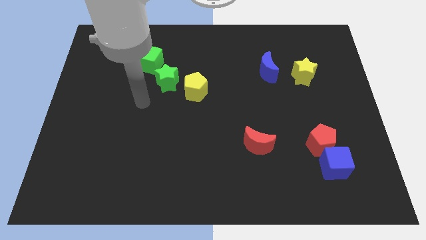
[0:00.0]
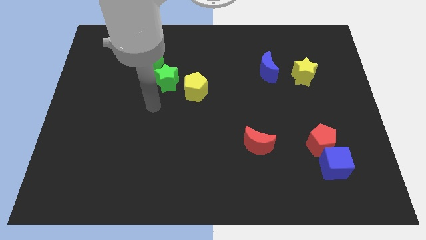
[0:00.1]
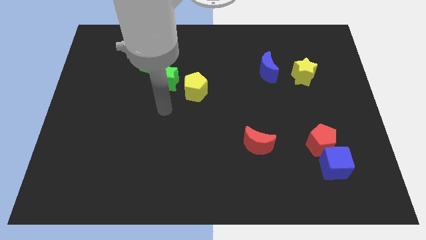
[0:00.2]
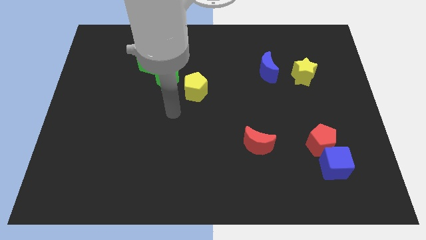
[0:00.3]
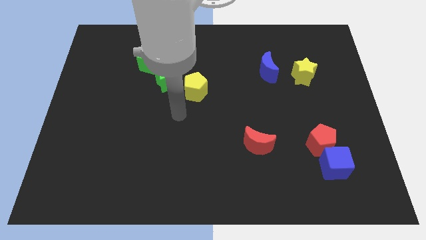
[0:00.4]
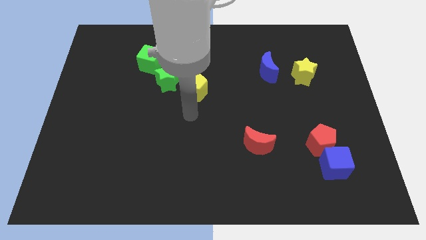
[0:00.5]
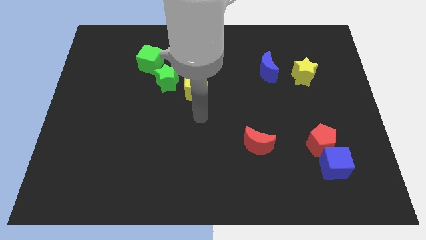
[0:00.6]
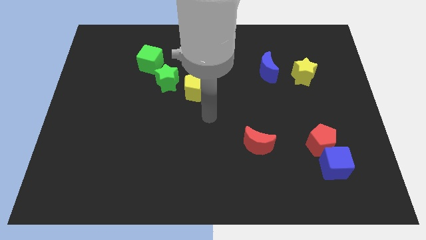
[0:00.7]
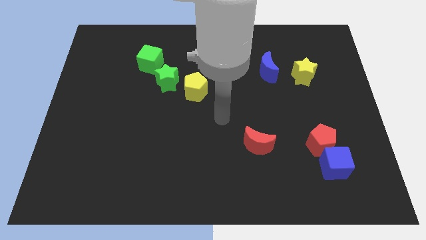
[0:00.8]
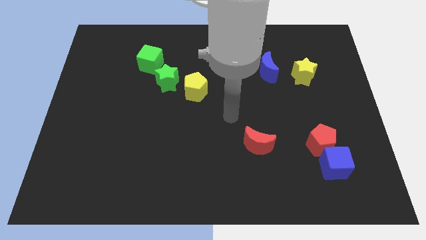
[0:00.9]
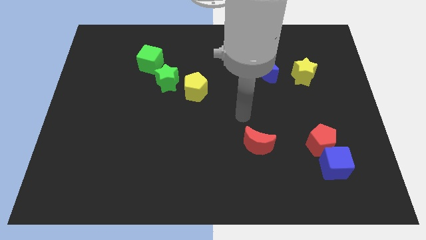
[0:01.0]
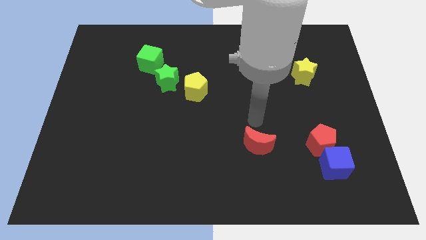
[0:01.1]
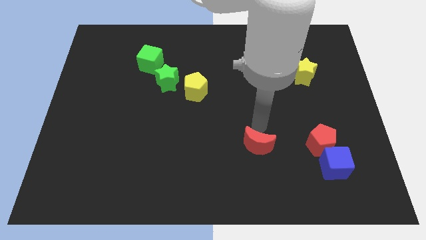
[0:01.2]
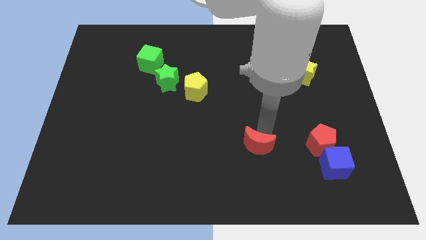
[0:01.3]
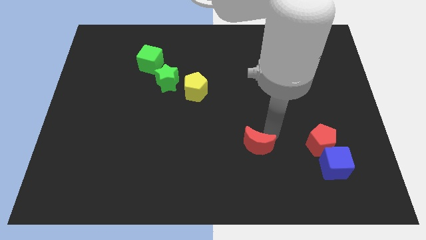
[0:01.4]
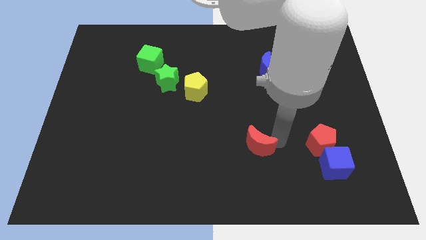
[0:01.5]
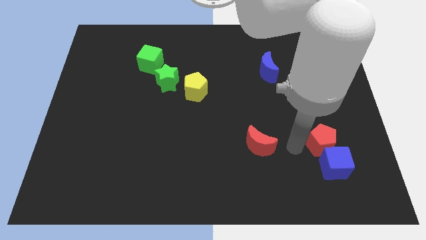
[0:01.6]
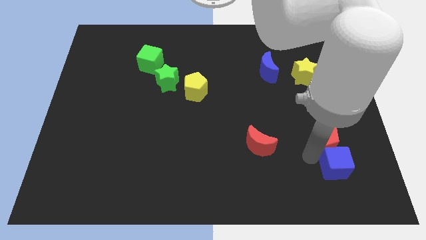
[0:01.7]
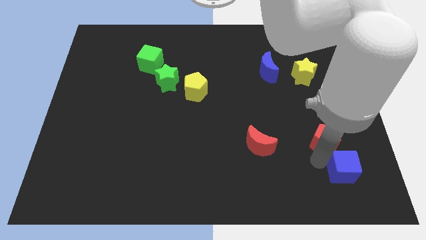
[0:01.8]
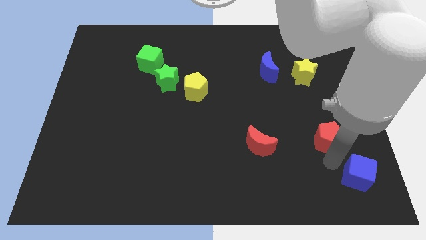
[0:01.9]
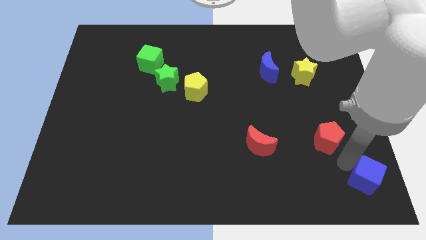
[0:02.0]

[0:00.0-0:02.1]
separate the red pentagon from the blue cube

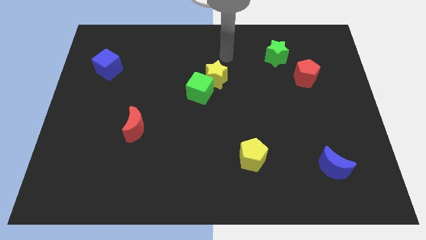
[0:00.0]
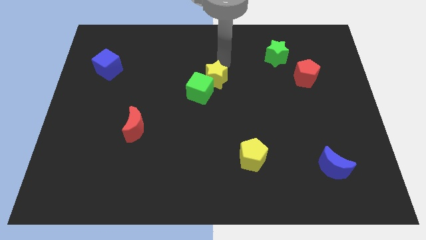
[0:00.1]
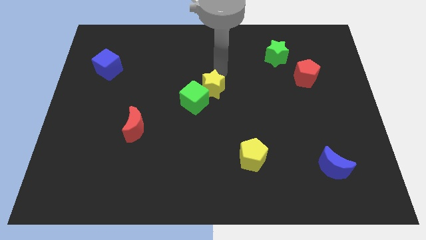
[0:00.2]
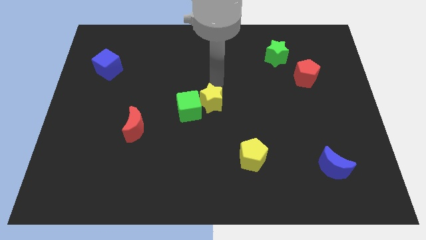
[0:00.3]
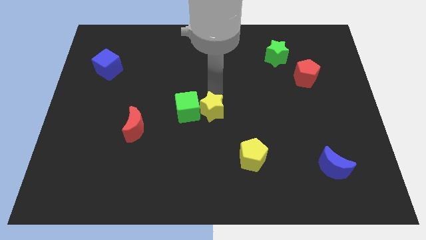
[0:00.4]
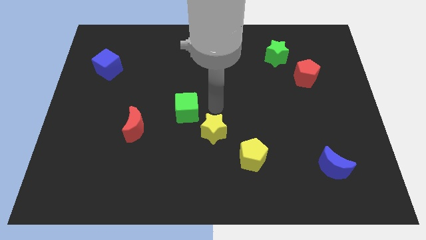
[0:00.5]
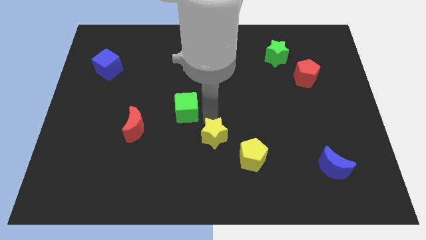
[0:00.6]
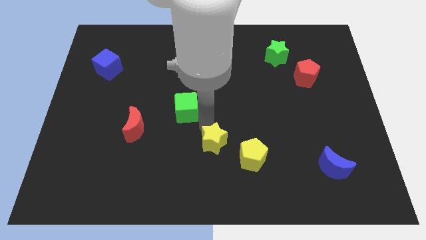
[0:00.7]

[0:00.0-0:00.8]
move the green cube away from the yellow star

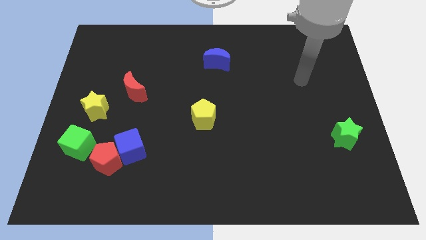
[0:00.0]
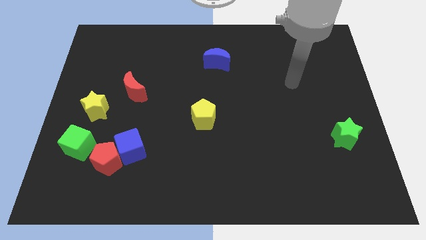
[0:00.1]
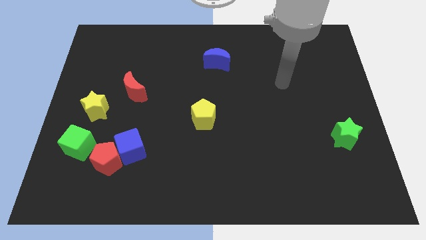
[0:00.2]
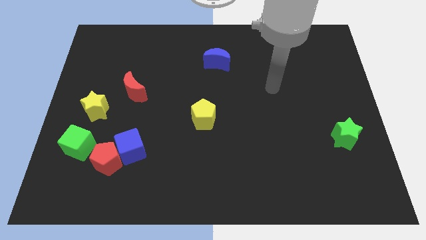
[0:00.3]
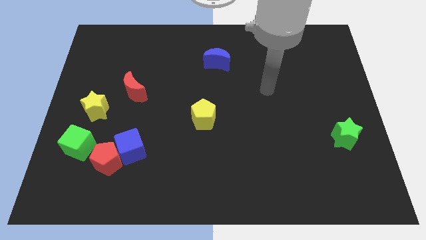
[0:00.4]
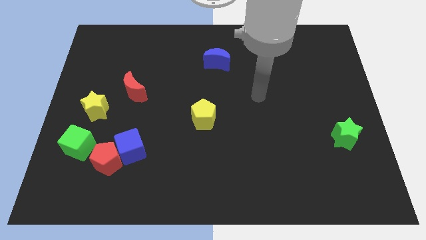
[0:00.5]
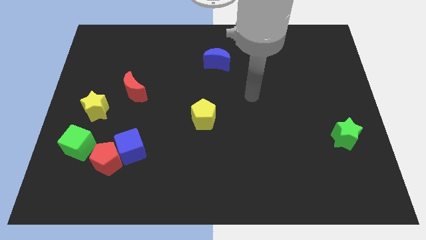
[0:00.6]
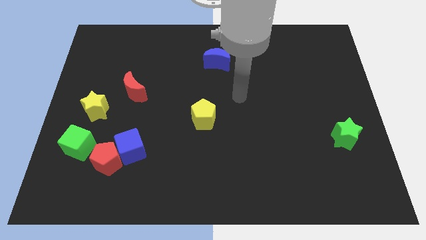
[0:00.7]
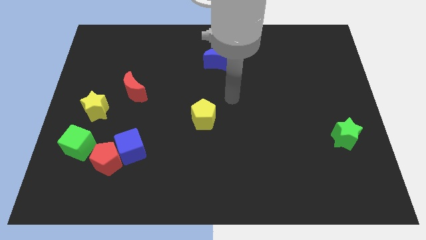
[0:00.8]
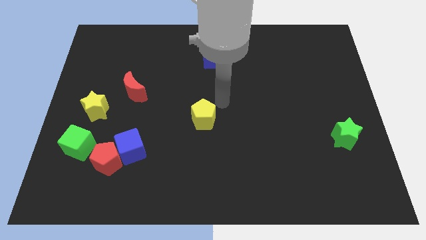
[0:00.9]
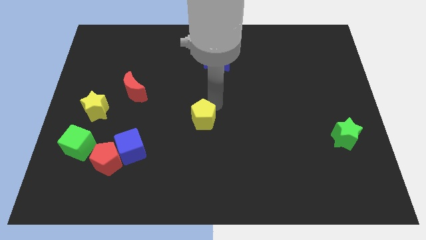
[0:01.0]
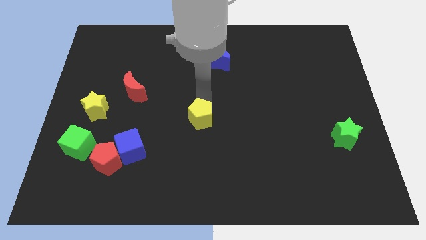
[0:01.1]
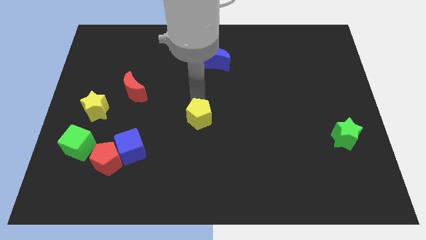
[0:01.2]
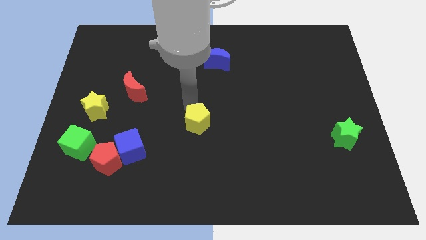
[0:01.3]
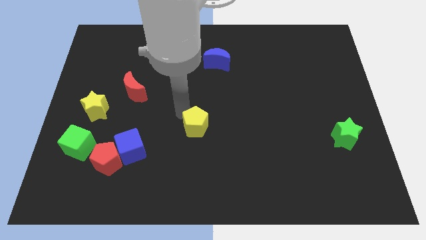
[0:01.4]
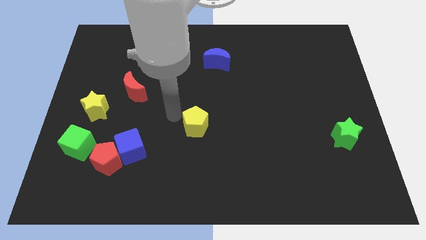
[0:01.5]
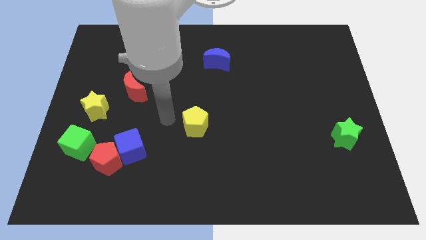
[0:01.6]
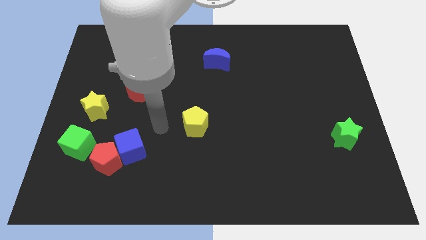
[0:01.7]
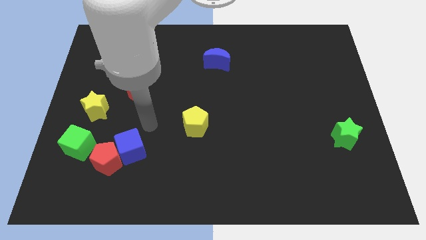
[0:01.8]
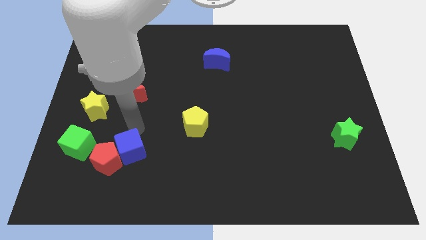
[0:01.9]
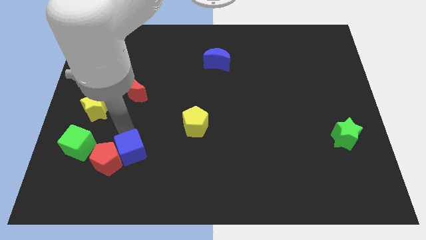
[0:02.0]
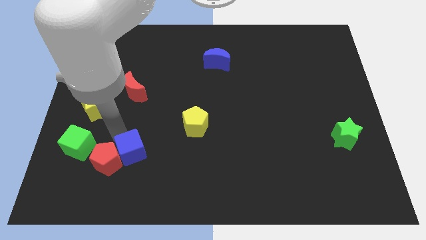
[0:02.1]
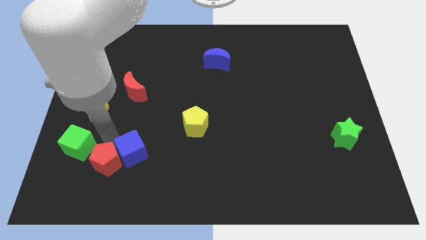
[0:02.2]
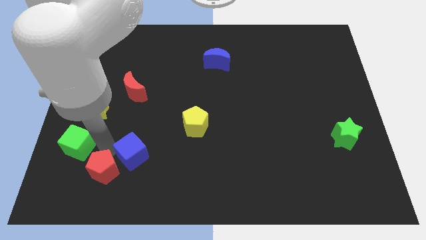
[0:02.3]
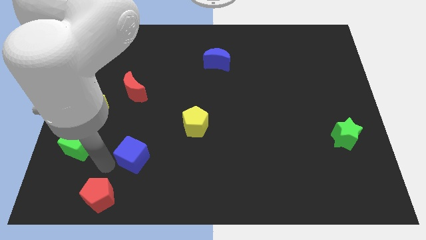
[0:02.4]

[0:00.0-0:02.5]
separate the blue cube from the red pentagon

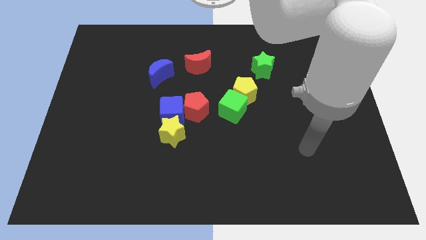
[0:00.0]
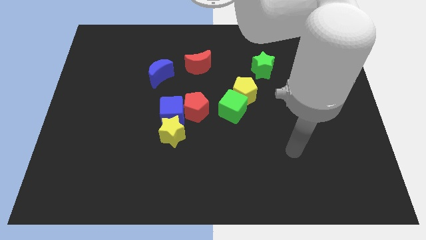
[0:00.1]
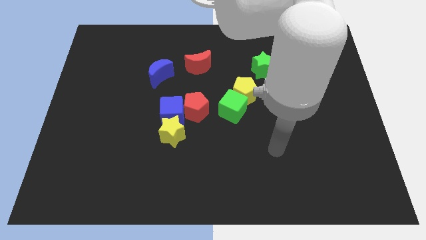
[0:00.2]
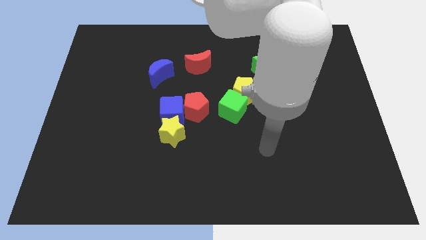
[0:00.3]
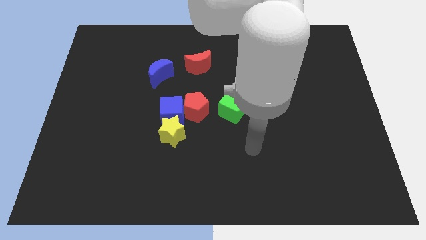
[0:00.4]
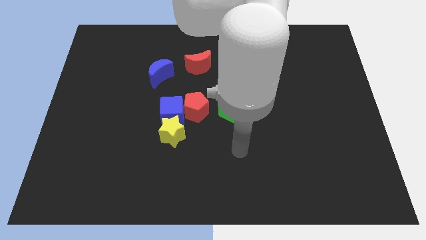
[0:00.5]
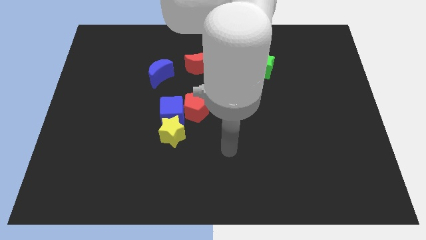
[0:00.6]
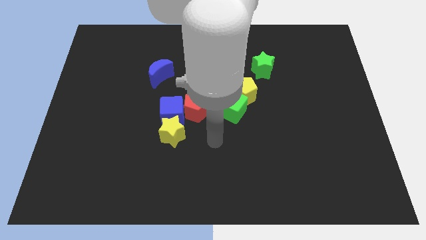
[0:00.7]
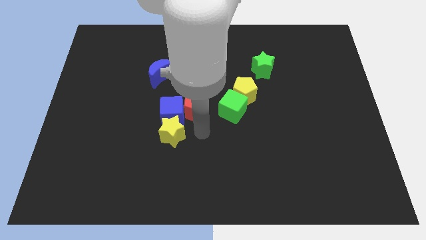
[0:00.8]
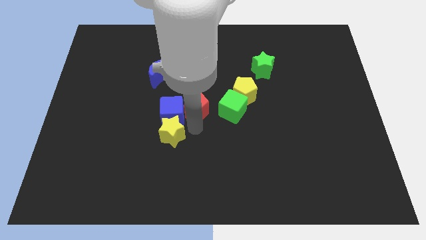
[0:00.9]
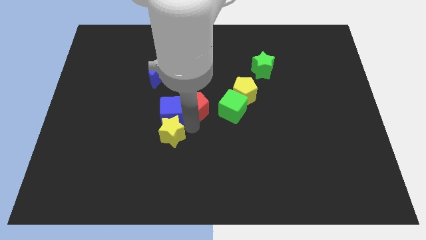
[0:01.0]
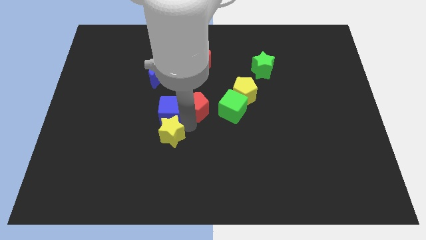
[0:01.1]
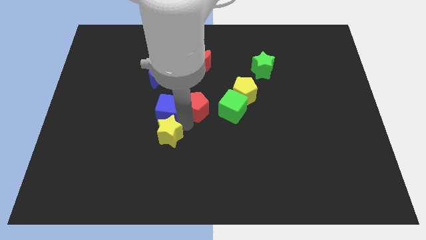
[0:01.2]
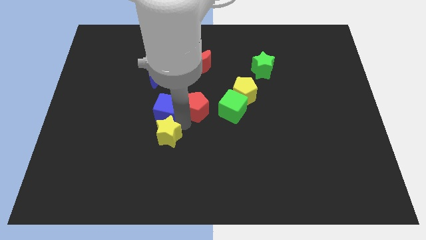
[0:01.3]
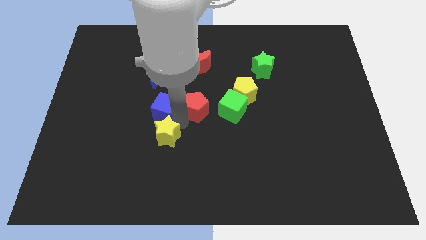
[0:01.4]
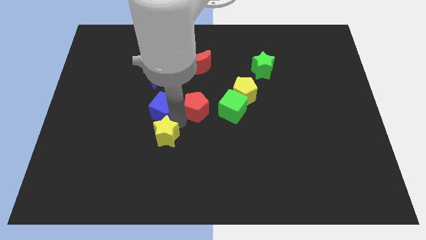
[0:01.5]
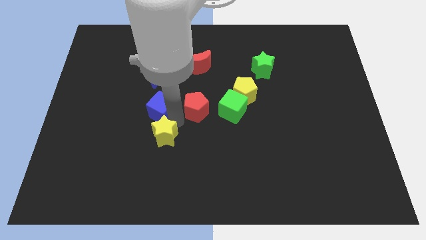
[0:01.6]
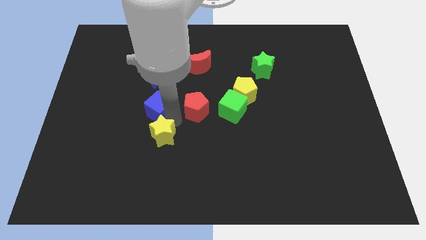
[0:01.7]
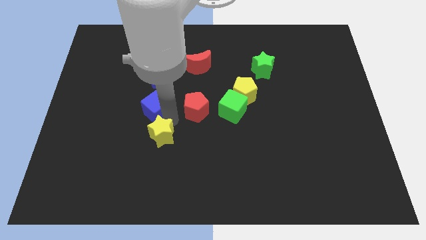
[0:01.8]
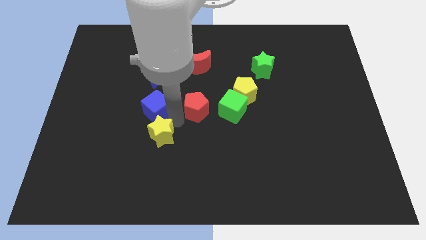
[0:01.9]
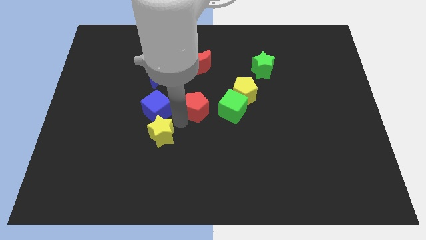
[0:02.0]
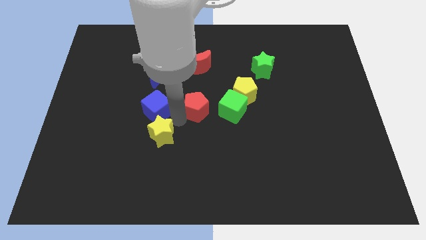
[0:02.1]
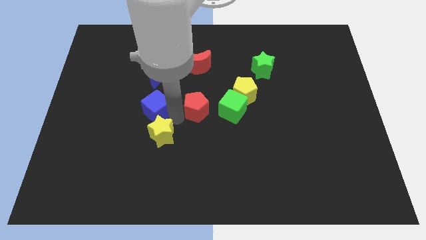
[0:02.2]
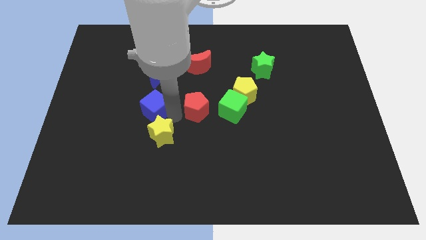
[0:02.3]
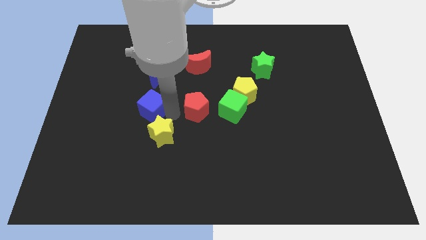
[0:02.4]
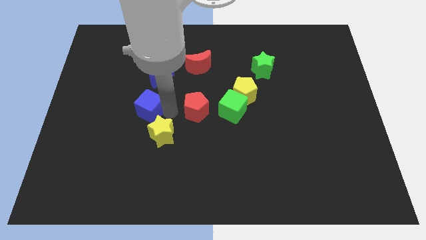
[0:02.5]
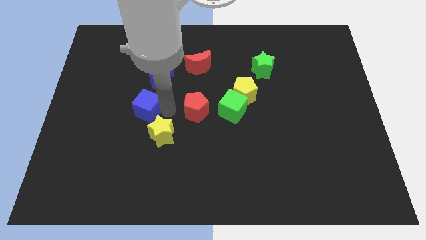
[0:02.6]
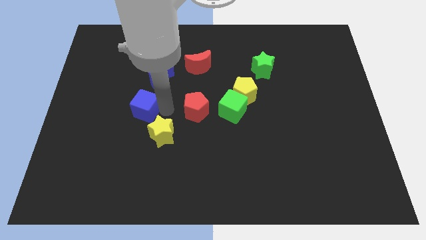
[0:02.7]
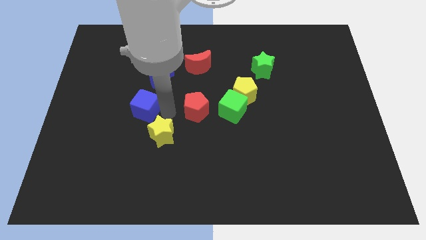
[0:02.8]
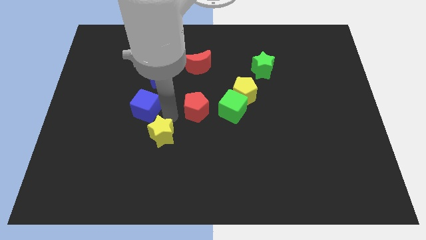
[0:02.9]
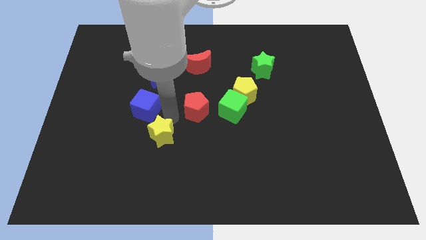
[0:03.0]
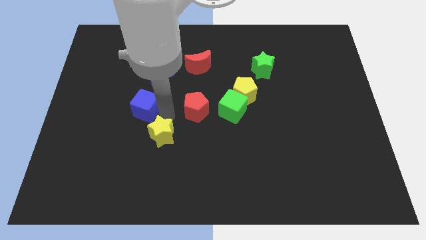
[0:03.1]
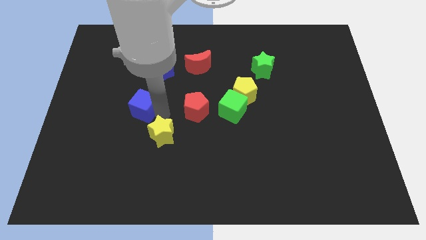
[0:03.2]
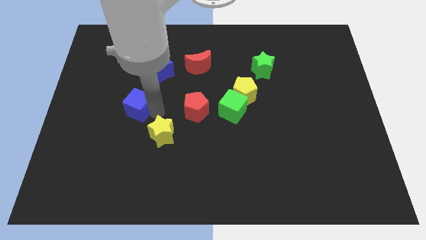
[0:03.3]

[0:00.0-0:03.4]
separate the blue cube from the red pentagon and yellow star

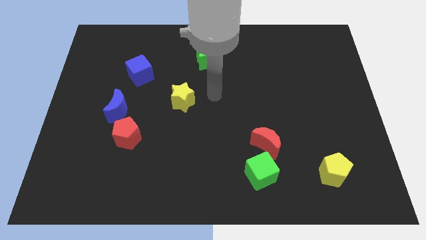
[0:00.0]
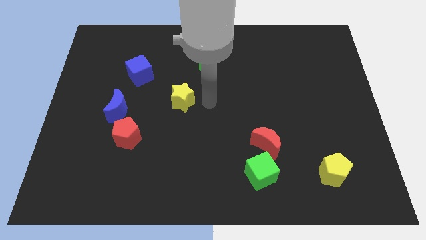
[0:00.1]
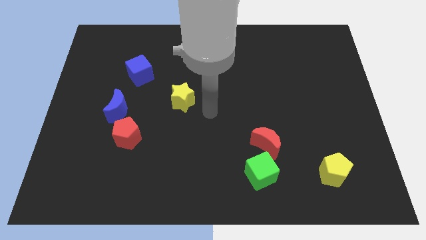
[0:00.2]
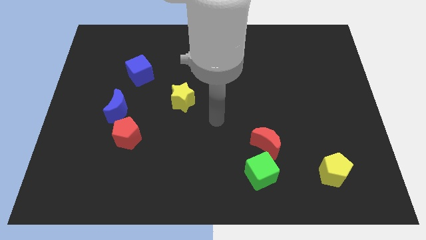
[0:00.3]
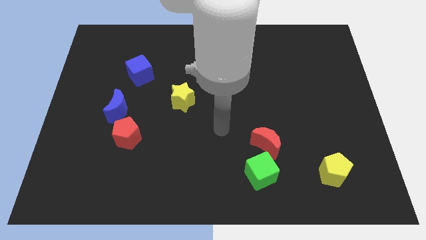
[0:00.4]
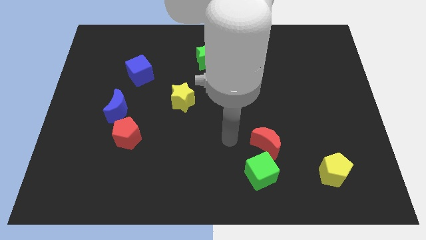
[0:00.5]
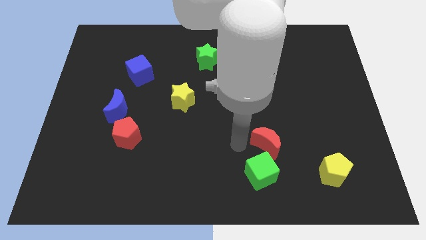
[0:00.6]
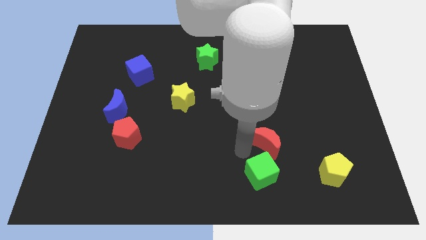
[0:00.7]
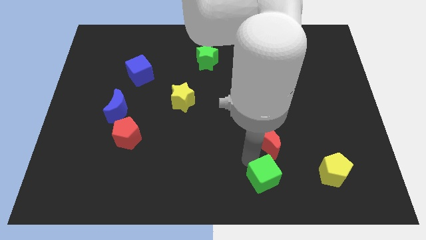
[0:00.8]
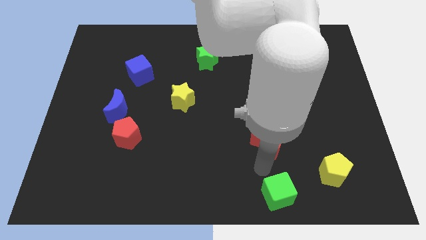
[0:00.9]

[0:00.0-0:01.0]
pull the red moon apart from the green cube
